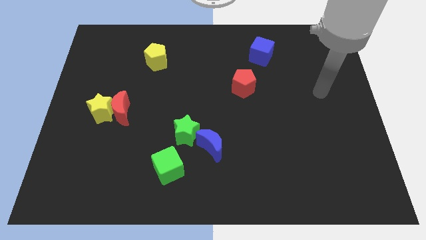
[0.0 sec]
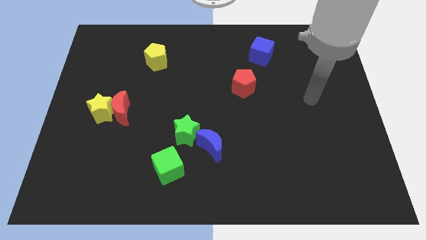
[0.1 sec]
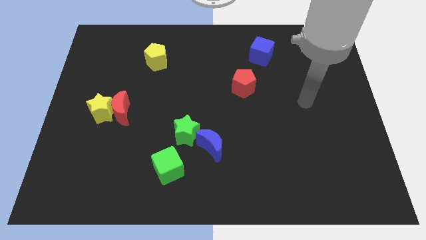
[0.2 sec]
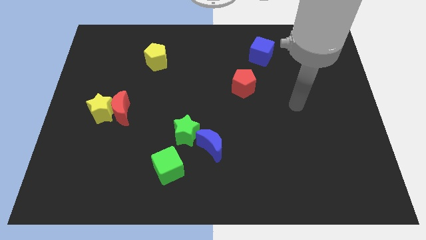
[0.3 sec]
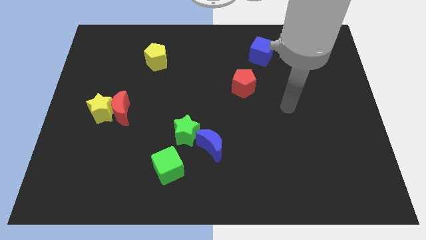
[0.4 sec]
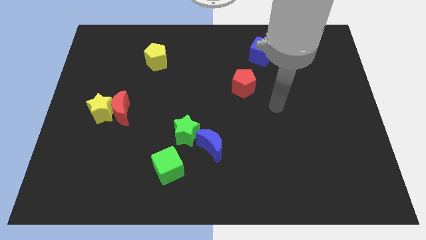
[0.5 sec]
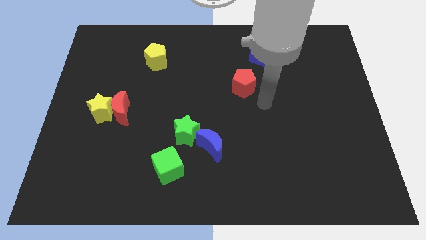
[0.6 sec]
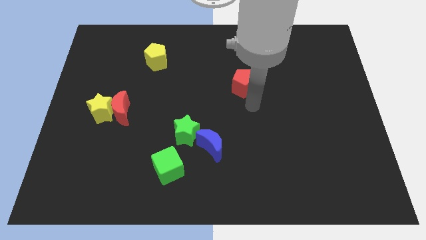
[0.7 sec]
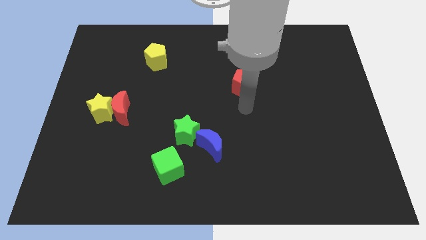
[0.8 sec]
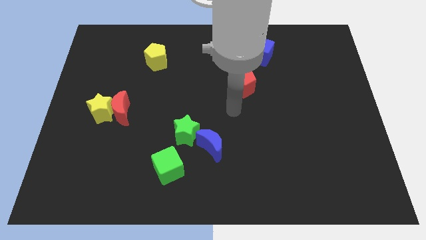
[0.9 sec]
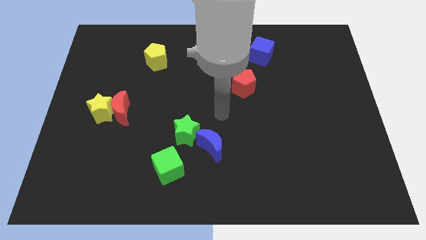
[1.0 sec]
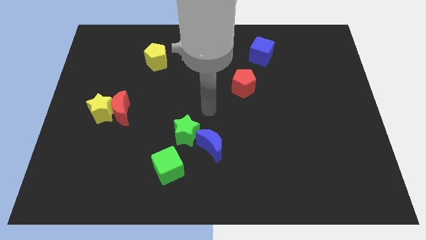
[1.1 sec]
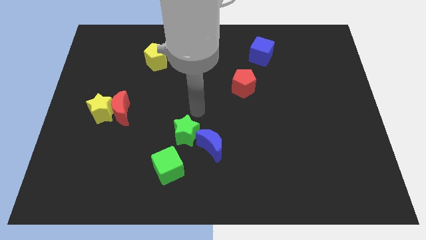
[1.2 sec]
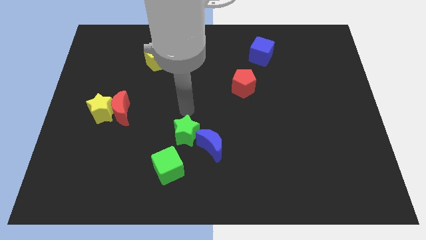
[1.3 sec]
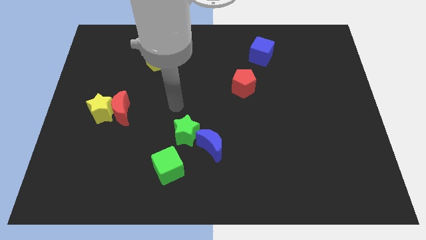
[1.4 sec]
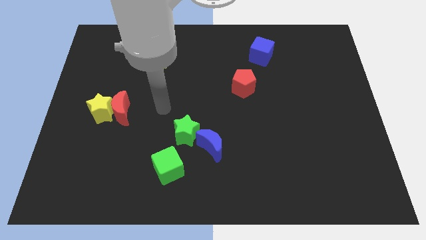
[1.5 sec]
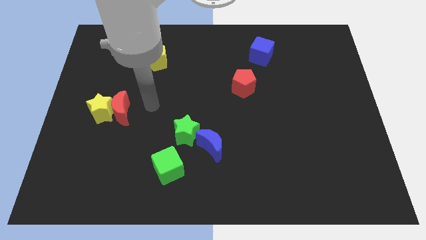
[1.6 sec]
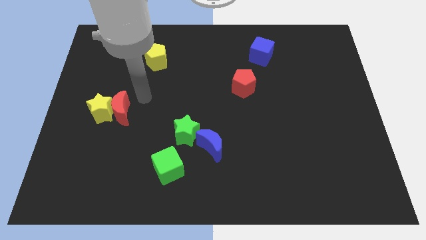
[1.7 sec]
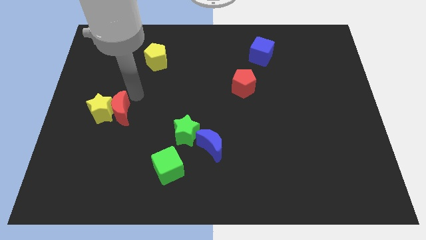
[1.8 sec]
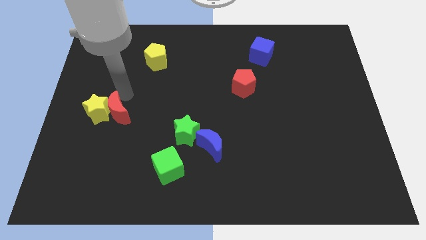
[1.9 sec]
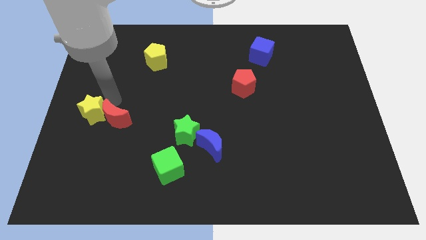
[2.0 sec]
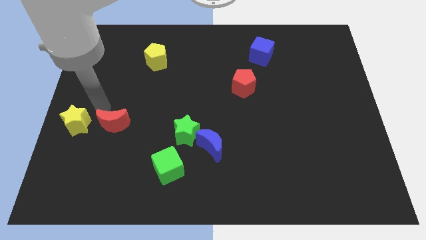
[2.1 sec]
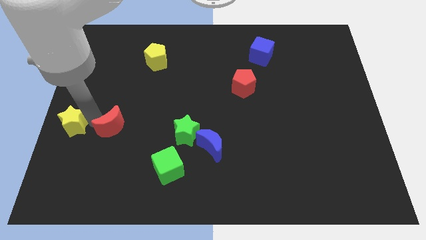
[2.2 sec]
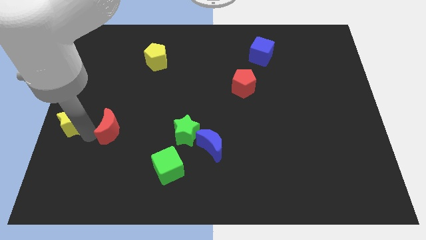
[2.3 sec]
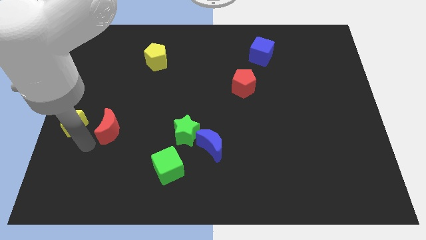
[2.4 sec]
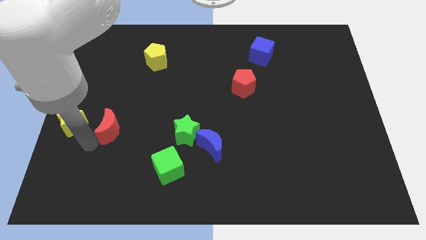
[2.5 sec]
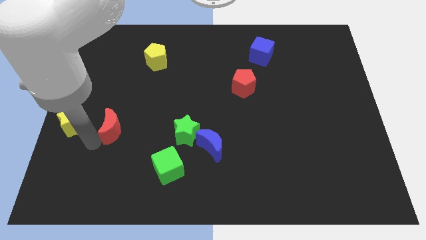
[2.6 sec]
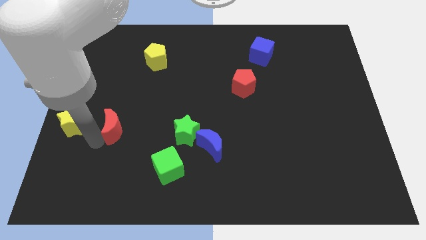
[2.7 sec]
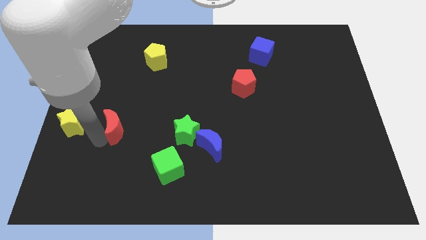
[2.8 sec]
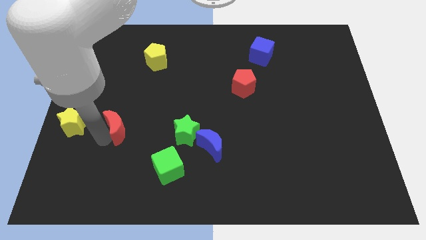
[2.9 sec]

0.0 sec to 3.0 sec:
move the red moon away from the yellow star

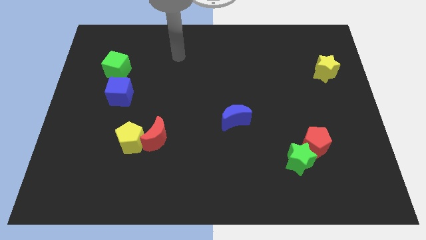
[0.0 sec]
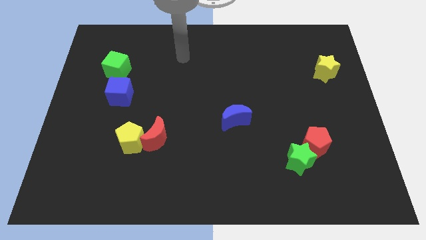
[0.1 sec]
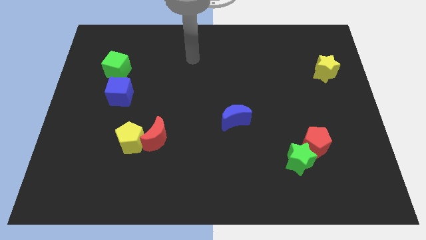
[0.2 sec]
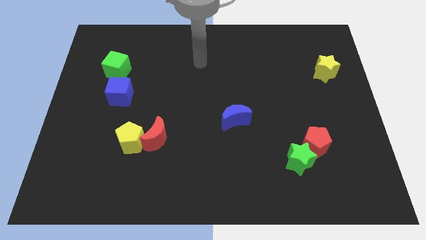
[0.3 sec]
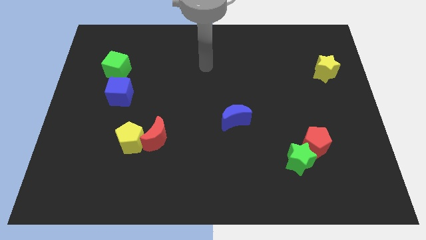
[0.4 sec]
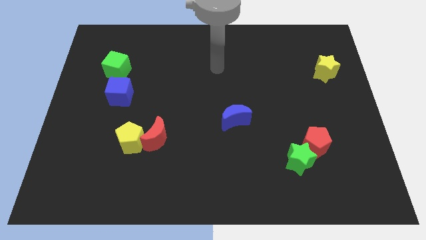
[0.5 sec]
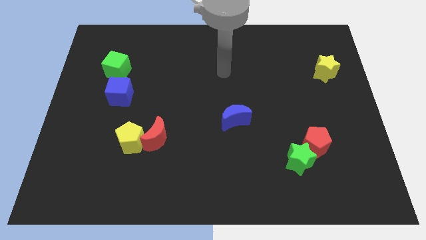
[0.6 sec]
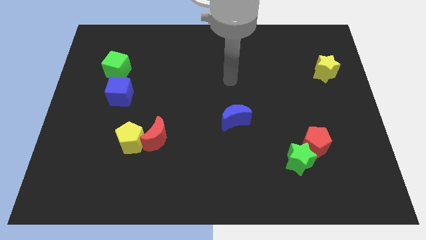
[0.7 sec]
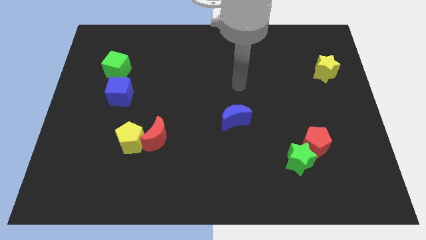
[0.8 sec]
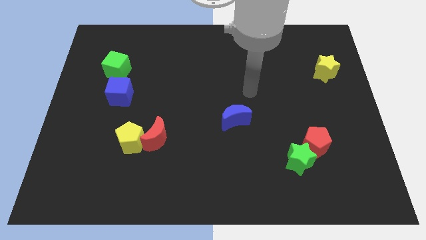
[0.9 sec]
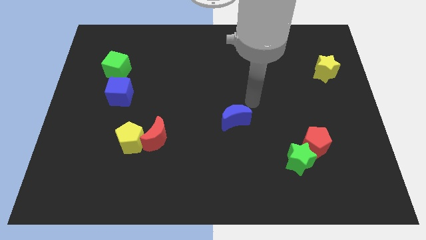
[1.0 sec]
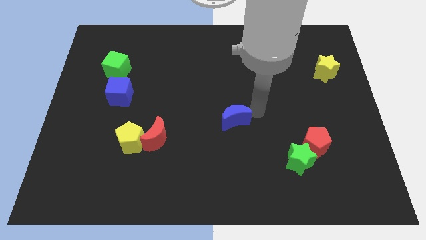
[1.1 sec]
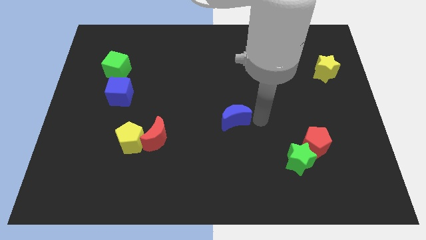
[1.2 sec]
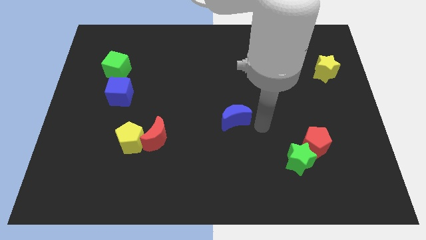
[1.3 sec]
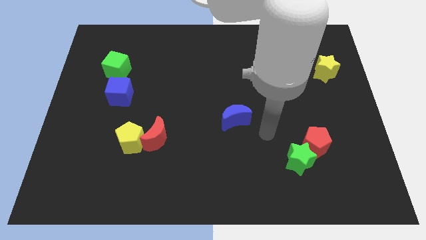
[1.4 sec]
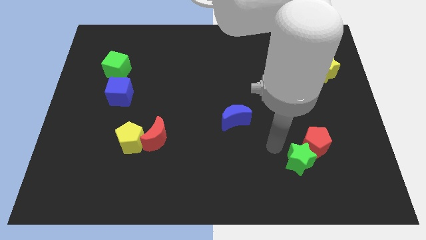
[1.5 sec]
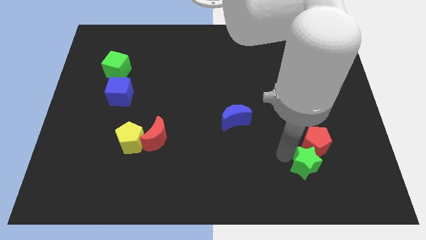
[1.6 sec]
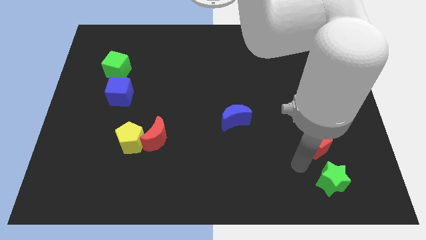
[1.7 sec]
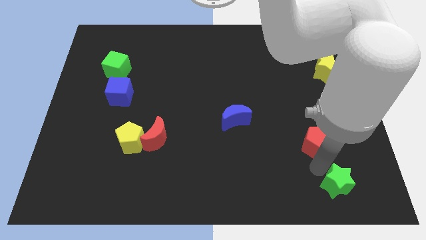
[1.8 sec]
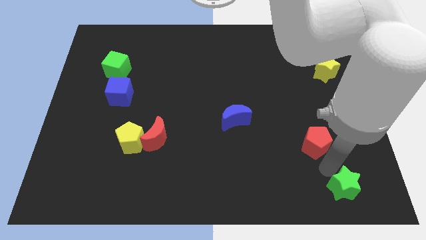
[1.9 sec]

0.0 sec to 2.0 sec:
move the red pentagon away from the green star

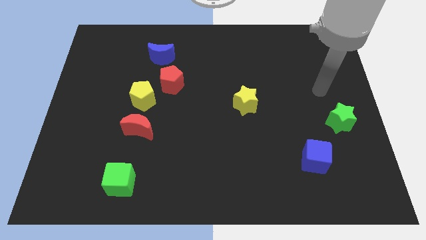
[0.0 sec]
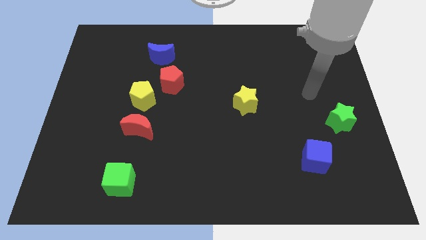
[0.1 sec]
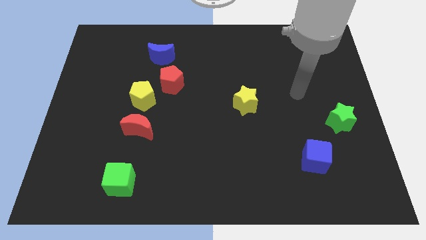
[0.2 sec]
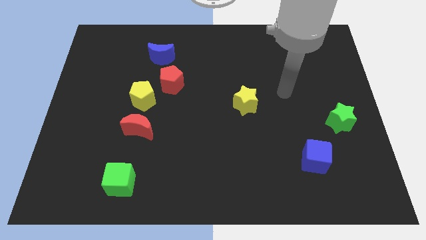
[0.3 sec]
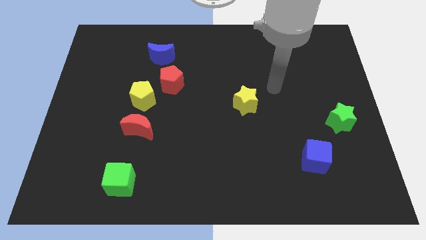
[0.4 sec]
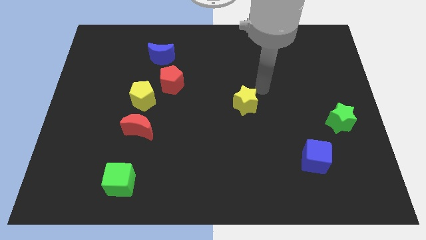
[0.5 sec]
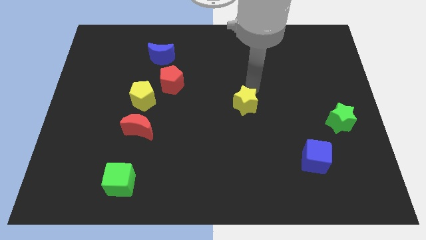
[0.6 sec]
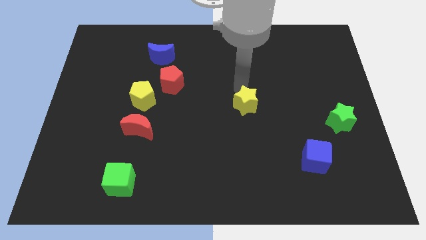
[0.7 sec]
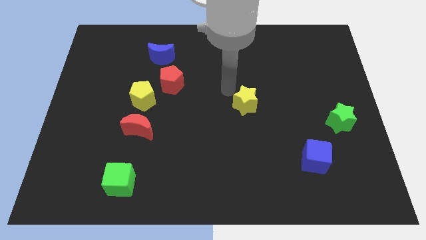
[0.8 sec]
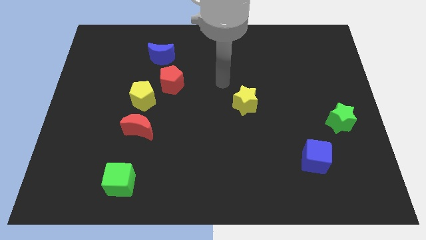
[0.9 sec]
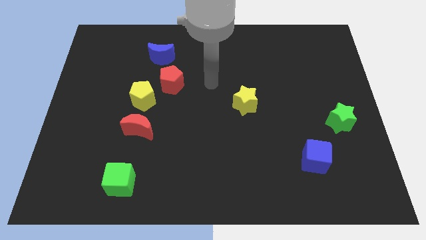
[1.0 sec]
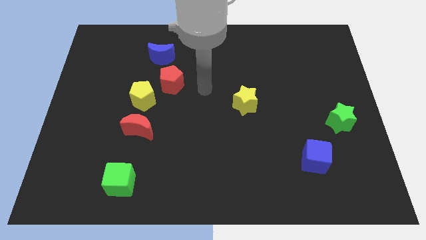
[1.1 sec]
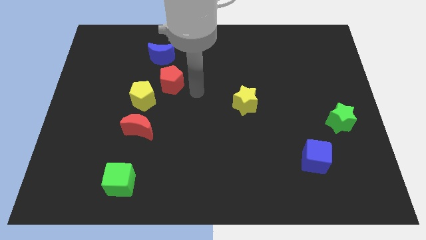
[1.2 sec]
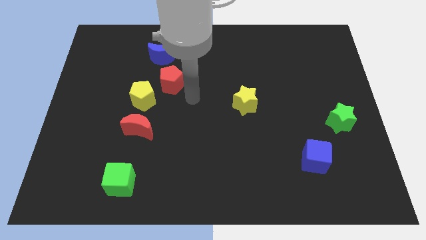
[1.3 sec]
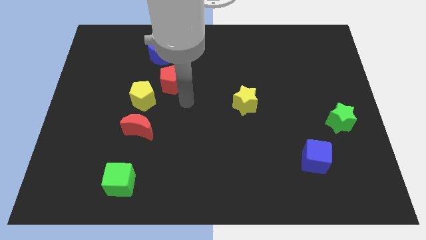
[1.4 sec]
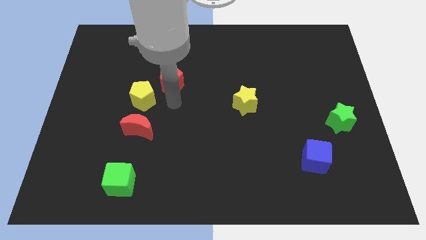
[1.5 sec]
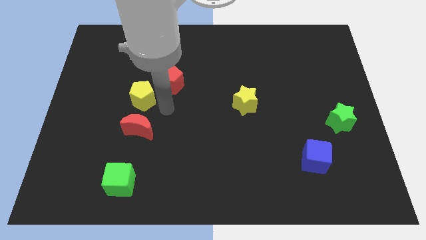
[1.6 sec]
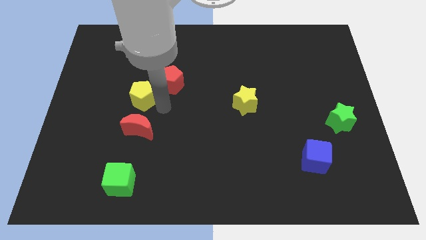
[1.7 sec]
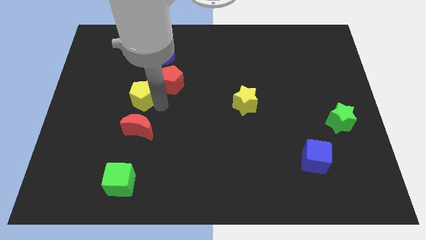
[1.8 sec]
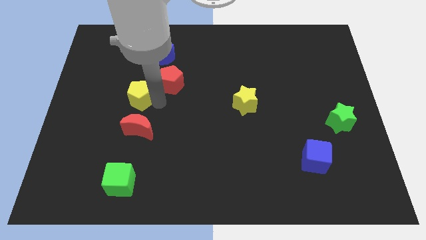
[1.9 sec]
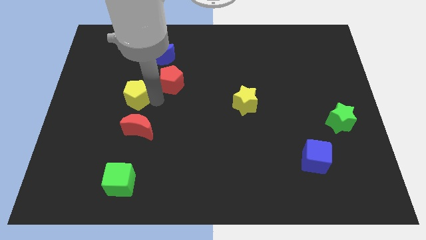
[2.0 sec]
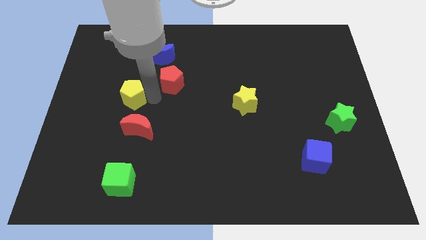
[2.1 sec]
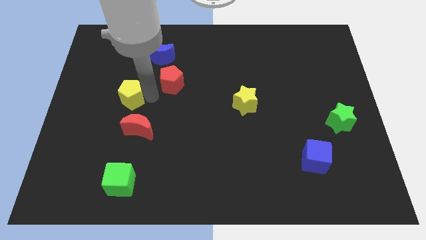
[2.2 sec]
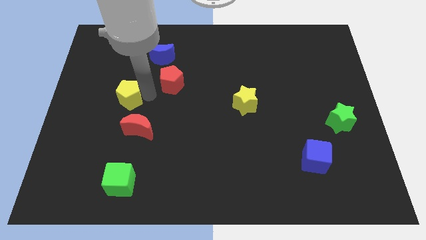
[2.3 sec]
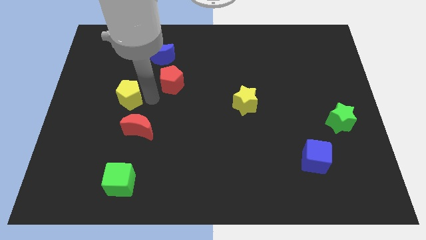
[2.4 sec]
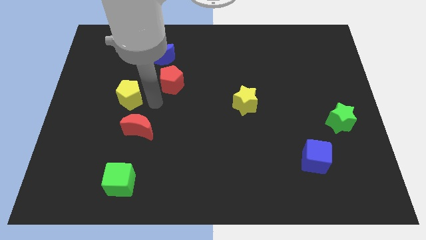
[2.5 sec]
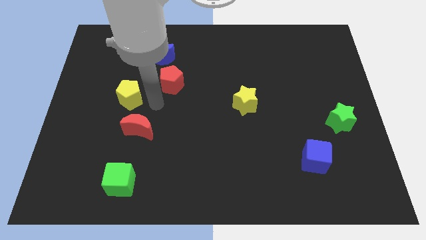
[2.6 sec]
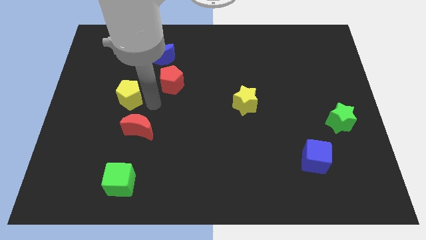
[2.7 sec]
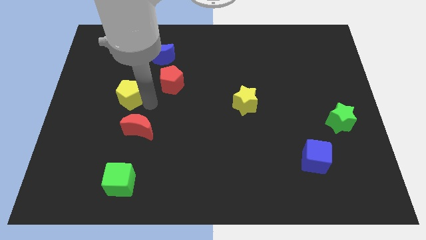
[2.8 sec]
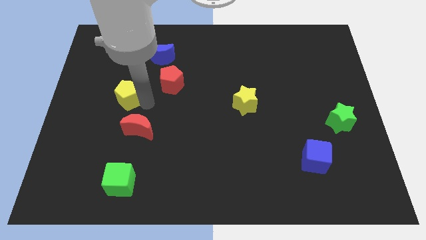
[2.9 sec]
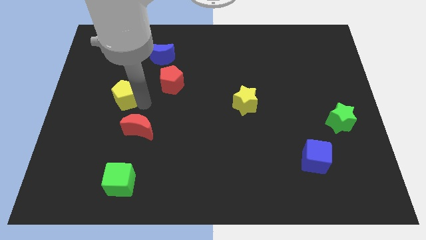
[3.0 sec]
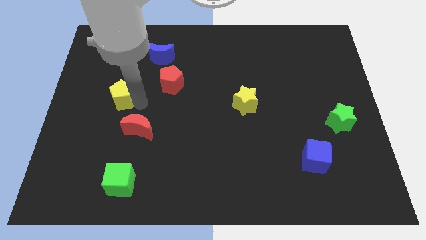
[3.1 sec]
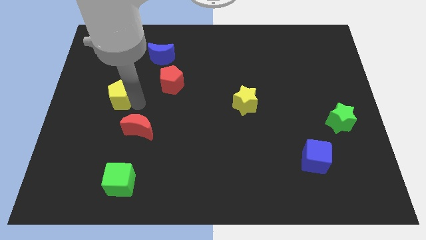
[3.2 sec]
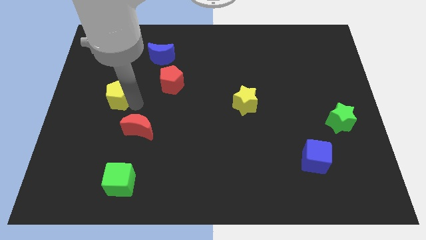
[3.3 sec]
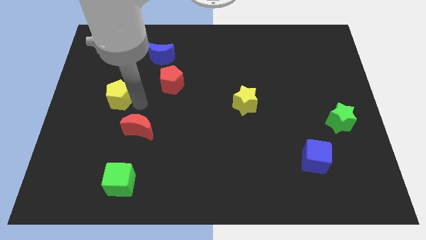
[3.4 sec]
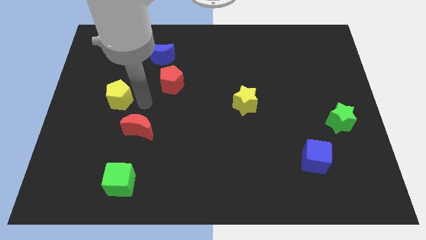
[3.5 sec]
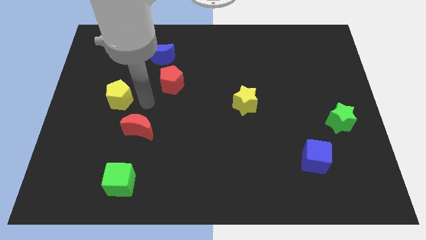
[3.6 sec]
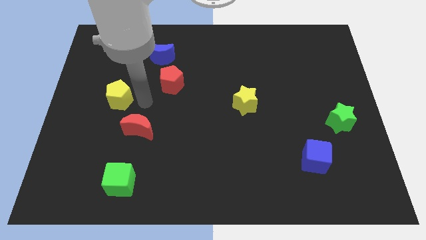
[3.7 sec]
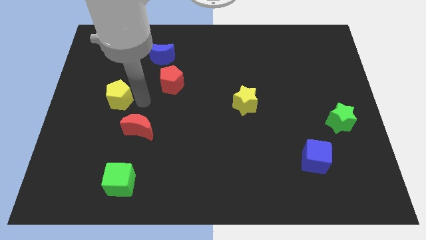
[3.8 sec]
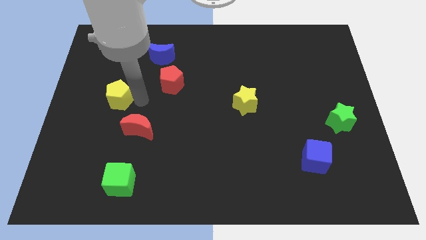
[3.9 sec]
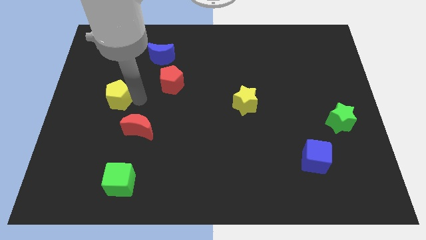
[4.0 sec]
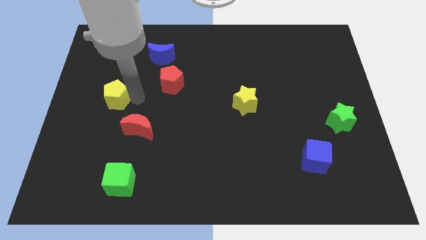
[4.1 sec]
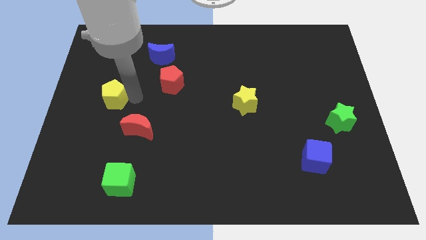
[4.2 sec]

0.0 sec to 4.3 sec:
pull the yellow pentagon apart from the red pentagon and red moon
